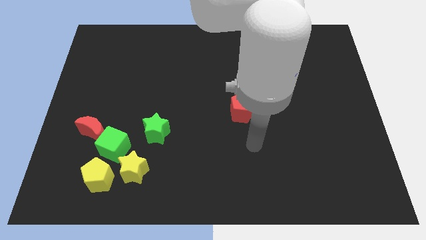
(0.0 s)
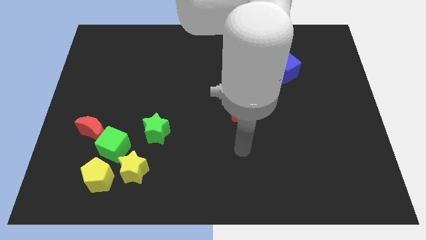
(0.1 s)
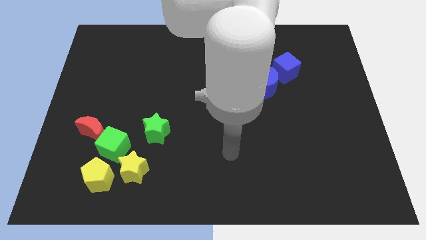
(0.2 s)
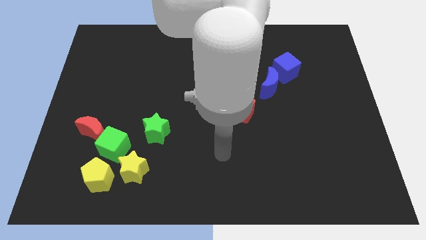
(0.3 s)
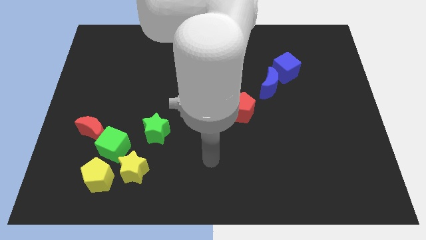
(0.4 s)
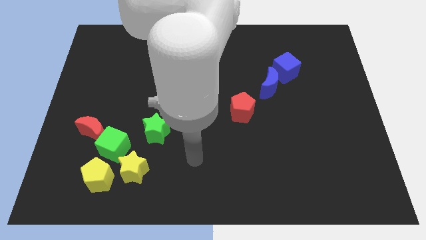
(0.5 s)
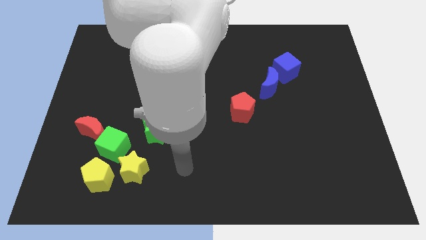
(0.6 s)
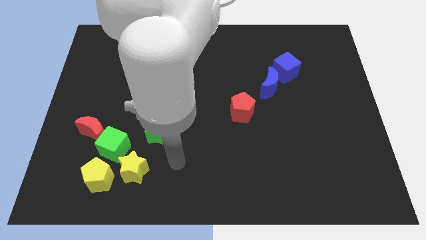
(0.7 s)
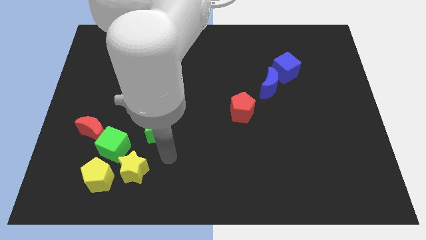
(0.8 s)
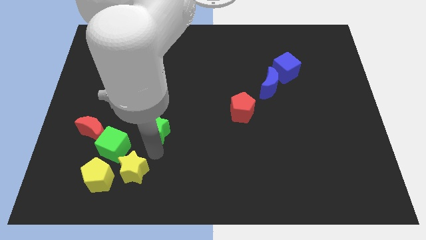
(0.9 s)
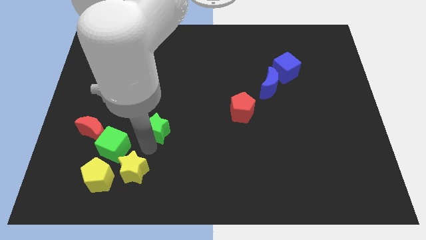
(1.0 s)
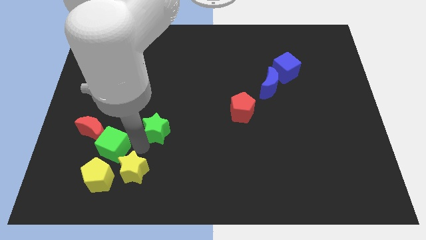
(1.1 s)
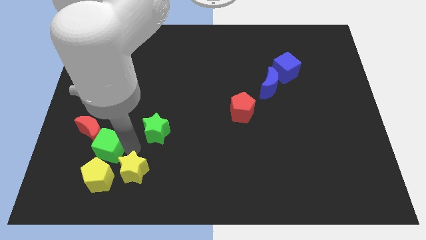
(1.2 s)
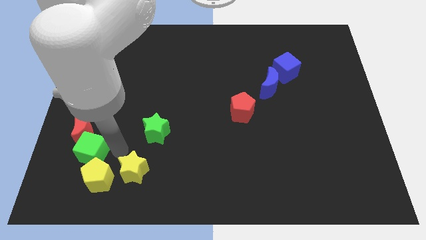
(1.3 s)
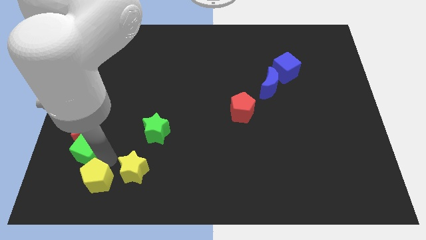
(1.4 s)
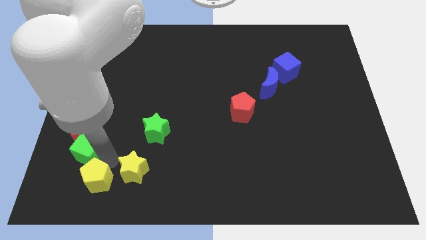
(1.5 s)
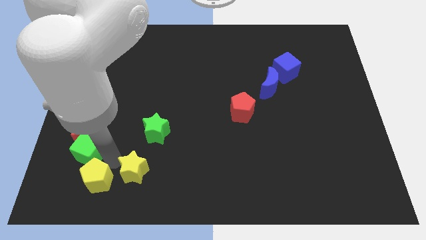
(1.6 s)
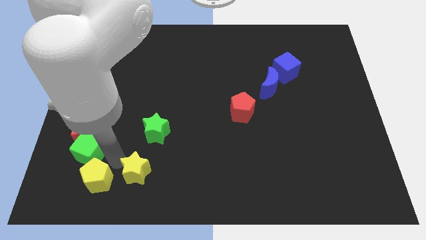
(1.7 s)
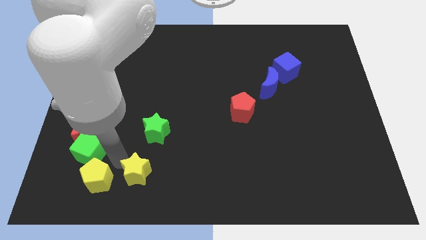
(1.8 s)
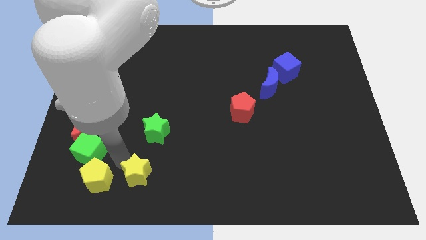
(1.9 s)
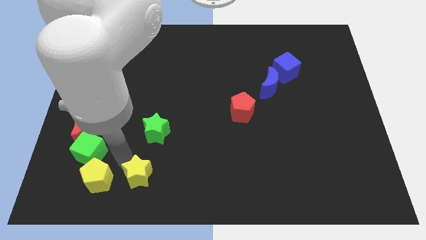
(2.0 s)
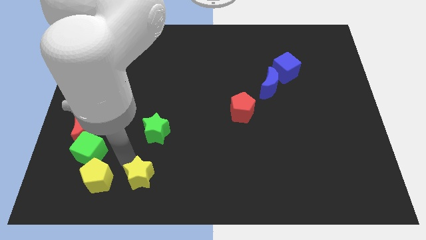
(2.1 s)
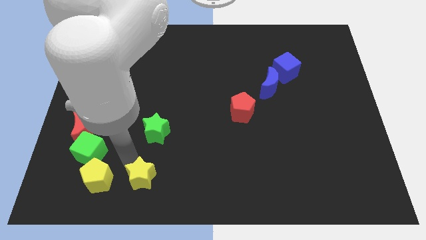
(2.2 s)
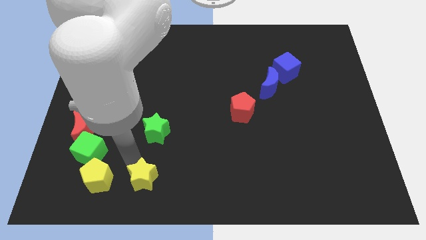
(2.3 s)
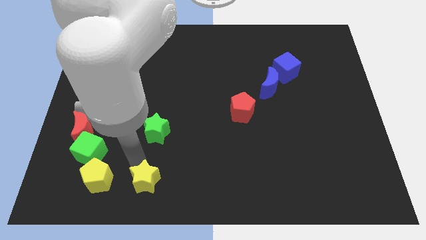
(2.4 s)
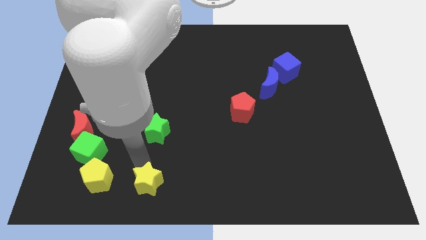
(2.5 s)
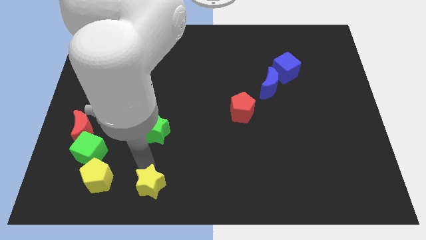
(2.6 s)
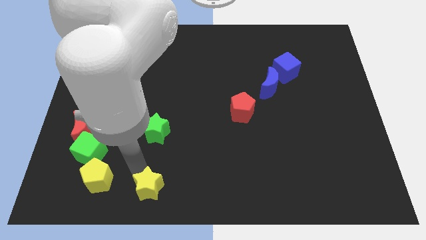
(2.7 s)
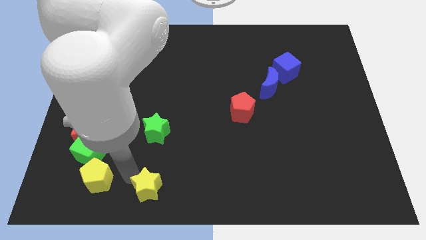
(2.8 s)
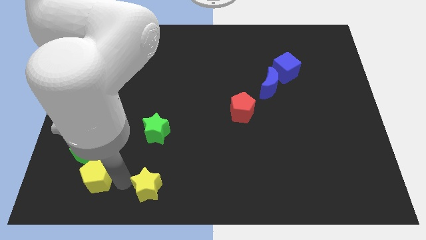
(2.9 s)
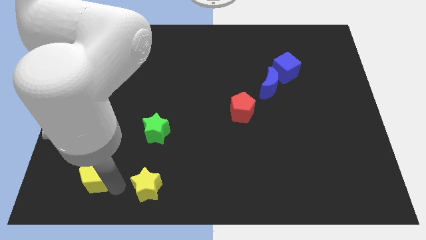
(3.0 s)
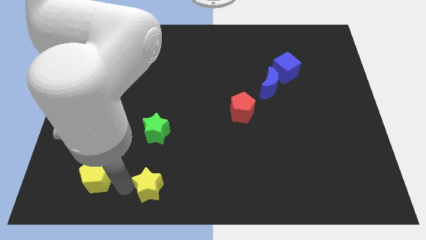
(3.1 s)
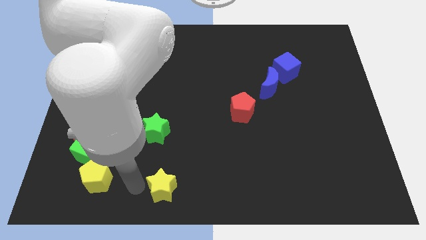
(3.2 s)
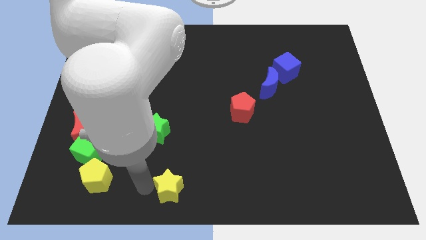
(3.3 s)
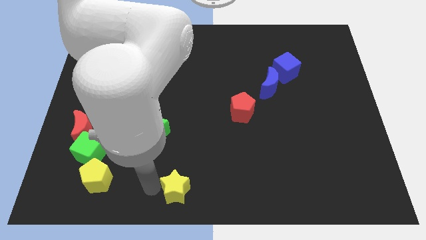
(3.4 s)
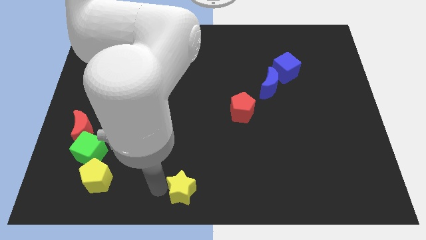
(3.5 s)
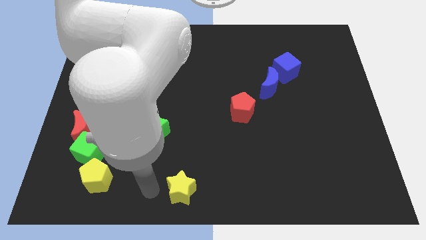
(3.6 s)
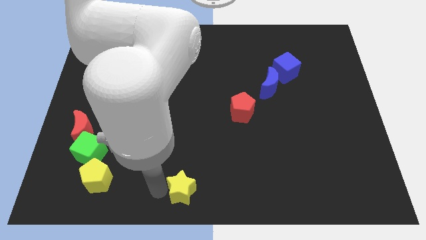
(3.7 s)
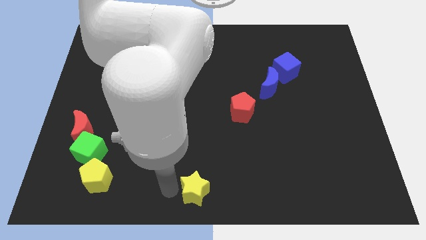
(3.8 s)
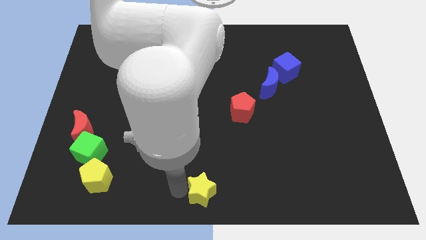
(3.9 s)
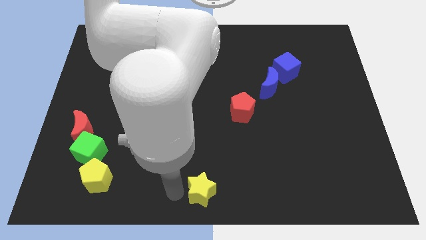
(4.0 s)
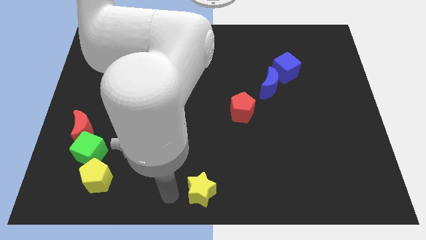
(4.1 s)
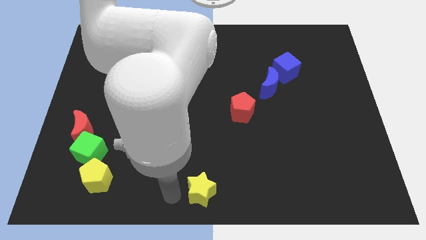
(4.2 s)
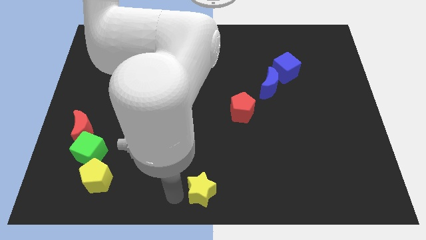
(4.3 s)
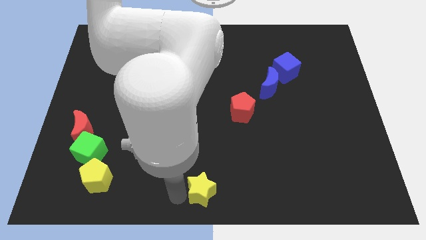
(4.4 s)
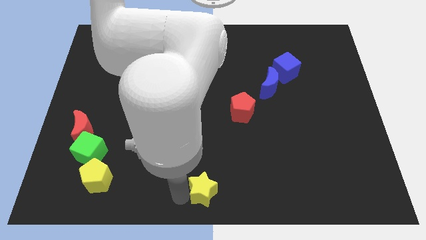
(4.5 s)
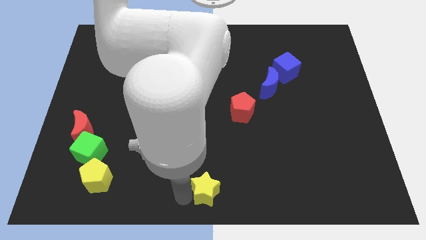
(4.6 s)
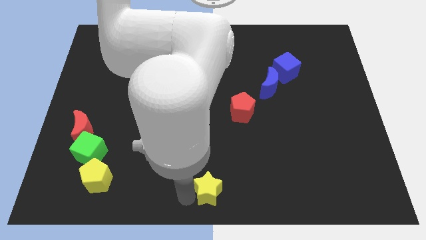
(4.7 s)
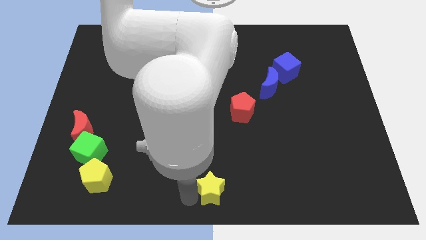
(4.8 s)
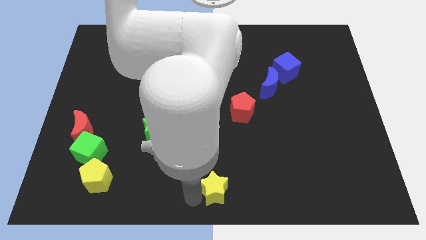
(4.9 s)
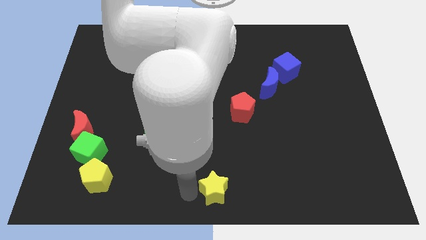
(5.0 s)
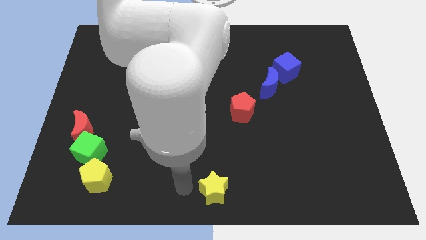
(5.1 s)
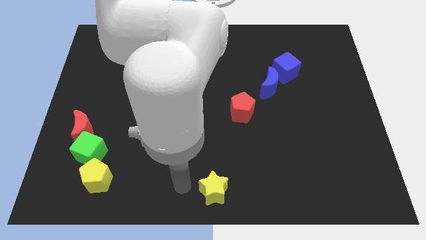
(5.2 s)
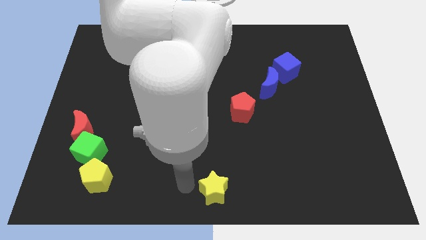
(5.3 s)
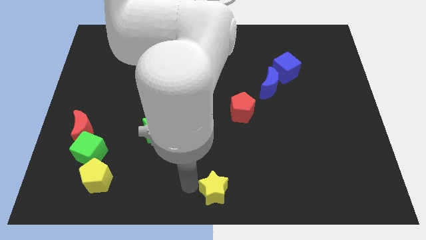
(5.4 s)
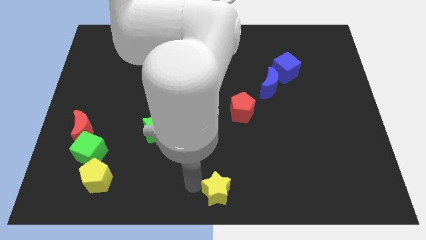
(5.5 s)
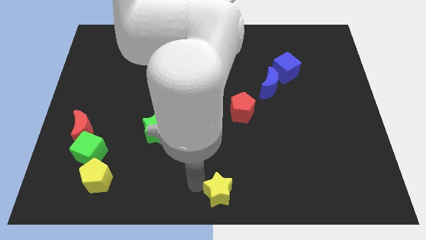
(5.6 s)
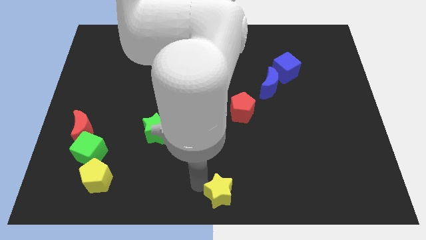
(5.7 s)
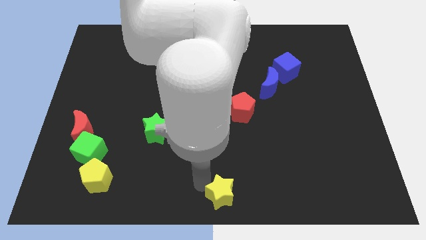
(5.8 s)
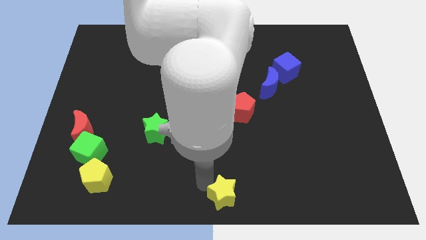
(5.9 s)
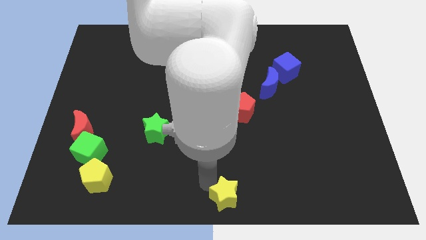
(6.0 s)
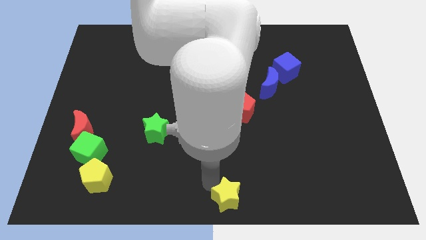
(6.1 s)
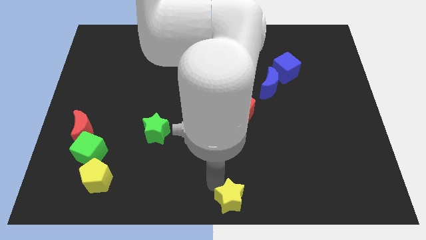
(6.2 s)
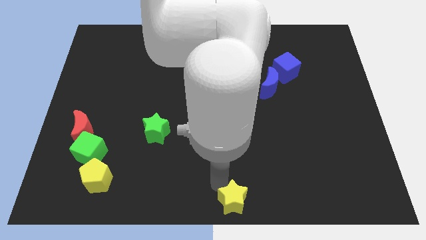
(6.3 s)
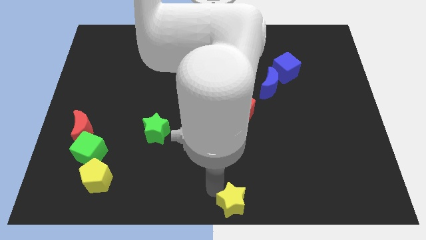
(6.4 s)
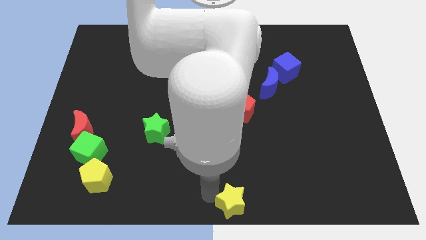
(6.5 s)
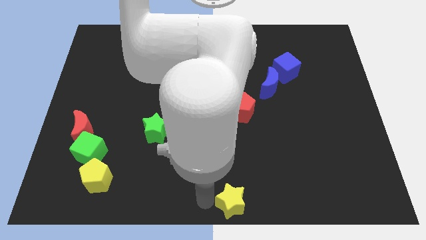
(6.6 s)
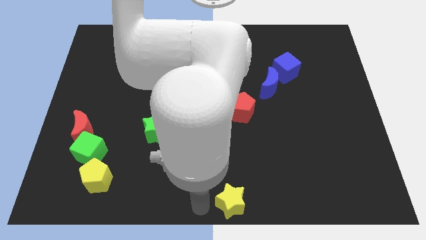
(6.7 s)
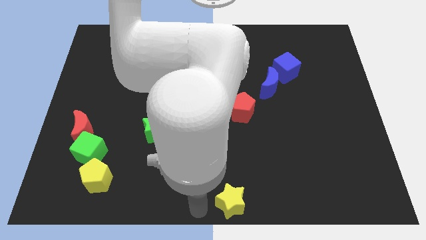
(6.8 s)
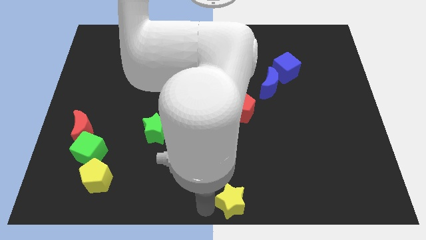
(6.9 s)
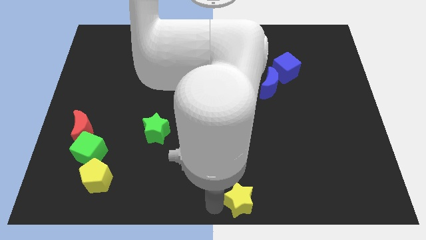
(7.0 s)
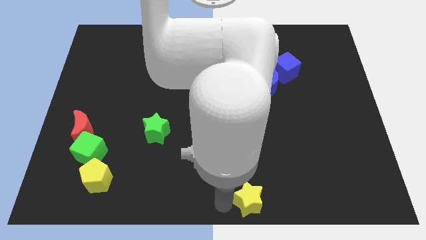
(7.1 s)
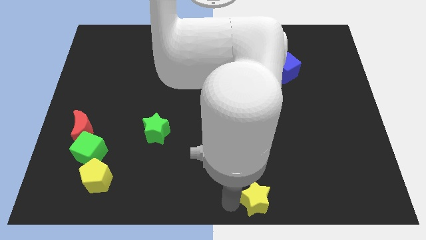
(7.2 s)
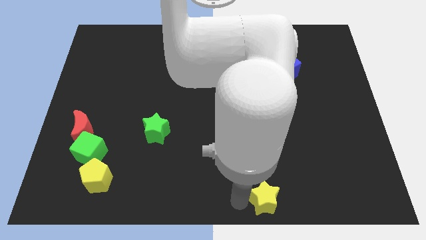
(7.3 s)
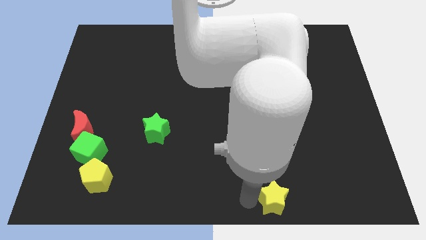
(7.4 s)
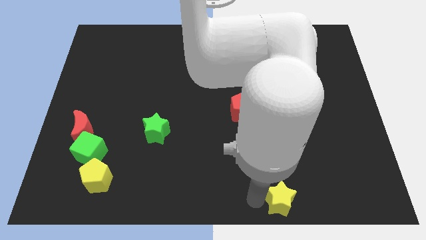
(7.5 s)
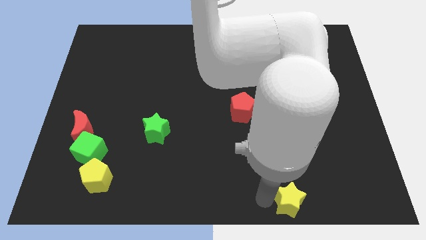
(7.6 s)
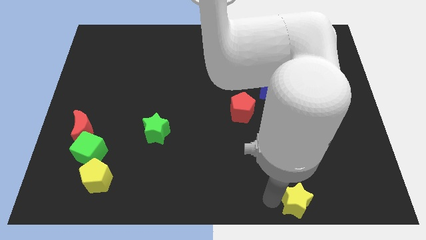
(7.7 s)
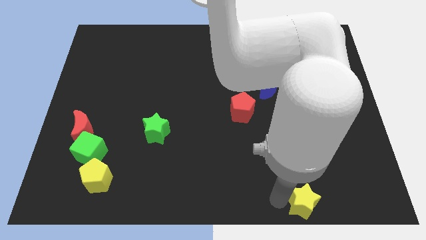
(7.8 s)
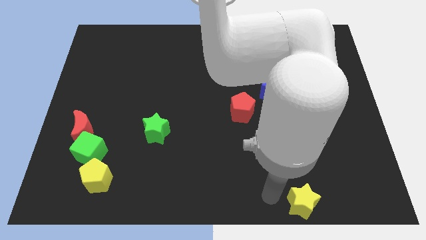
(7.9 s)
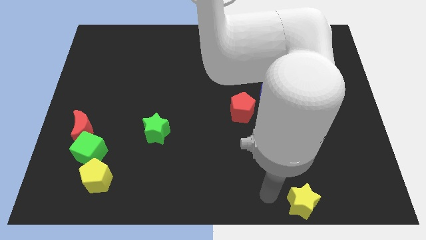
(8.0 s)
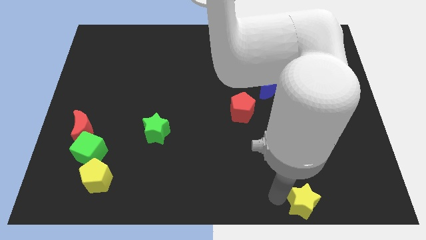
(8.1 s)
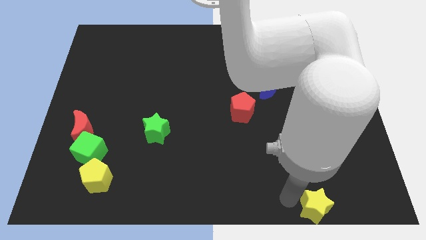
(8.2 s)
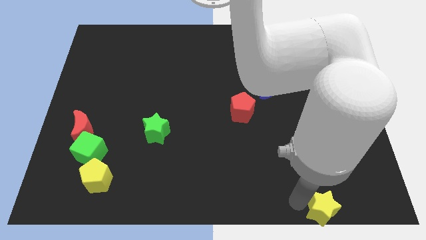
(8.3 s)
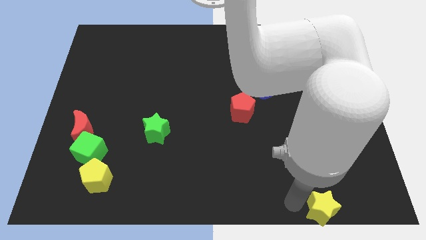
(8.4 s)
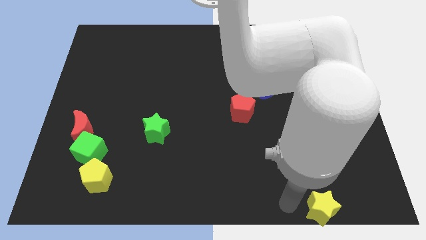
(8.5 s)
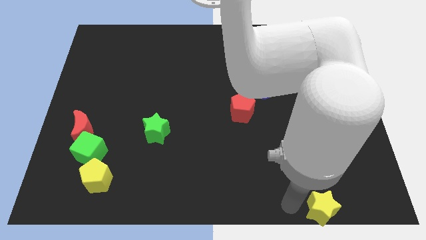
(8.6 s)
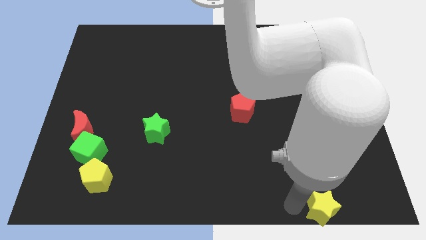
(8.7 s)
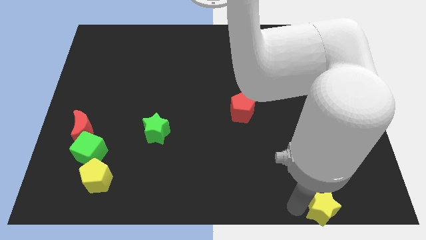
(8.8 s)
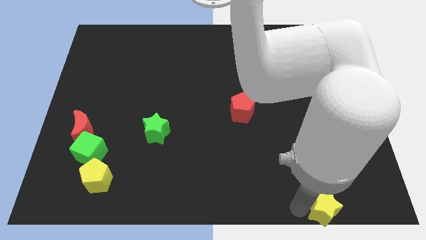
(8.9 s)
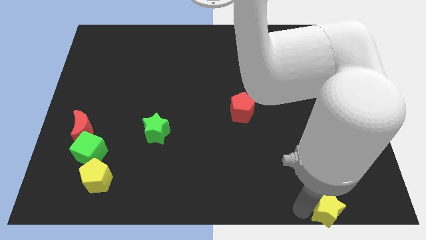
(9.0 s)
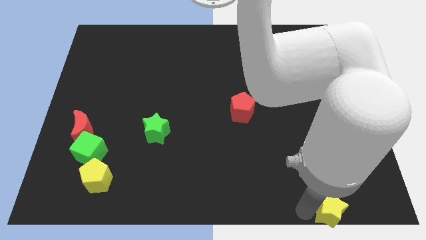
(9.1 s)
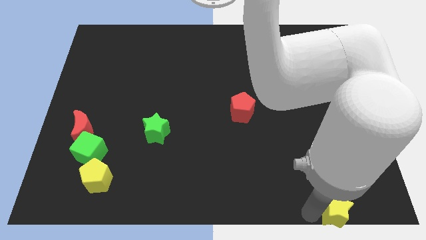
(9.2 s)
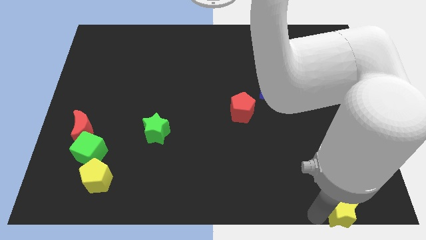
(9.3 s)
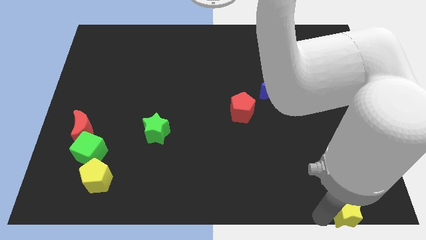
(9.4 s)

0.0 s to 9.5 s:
slide the yellow star to the bottom right corner
